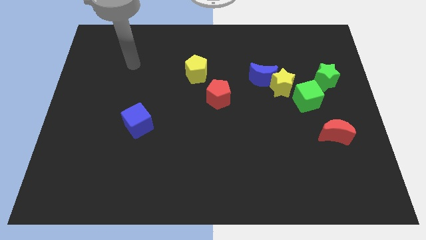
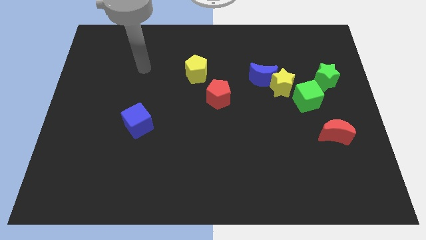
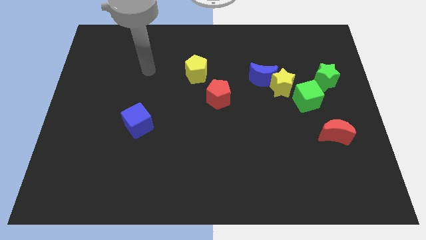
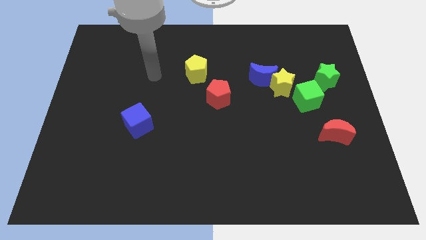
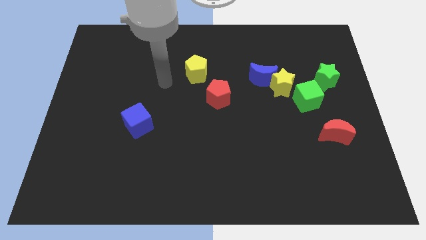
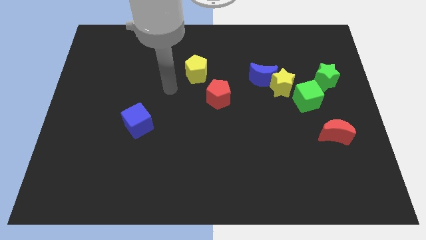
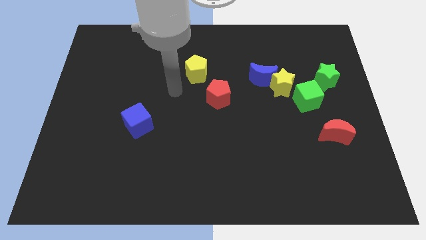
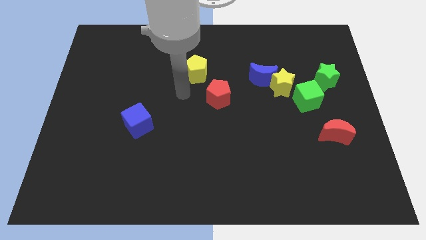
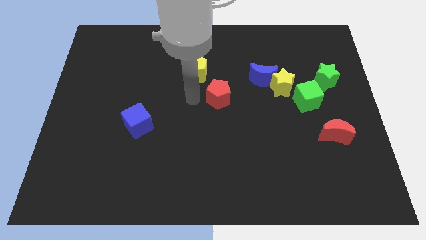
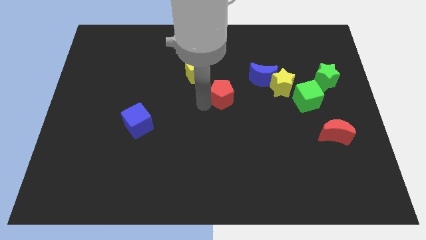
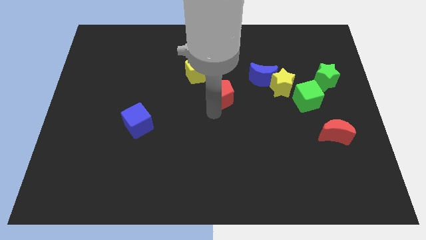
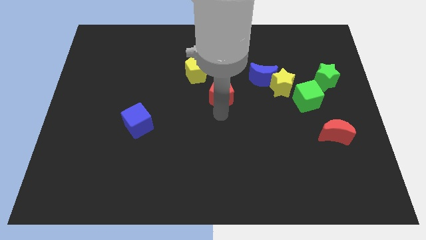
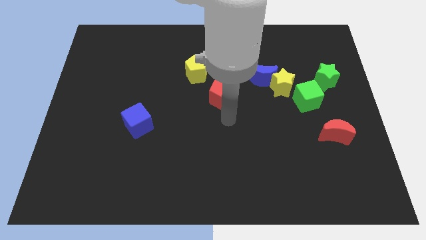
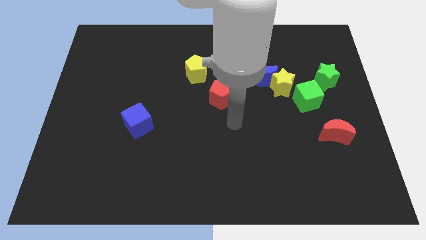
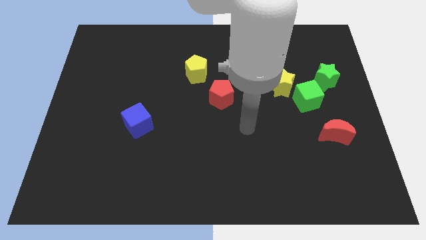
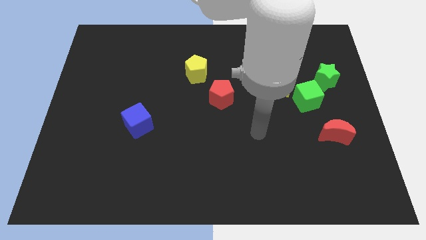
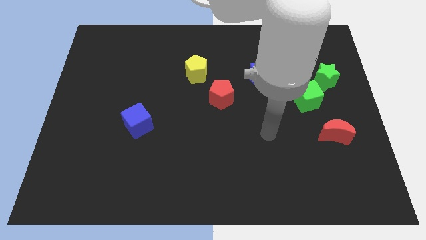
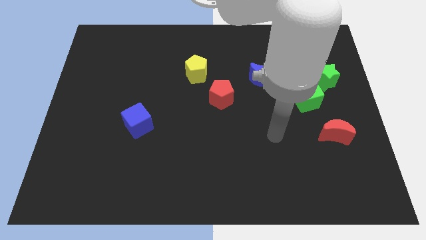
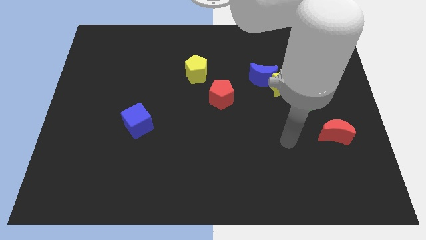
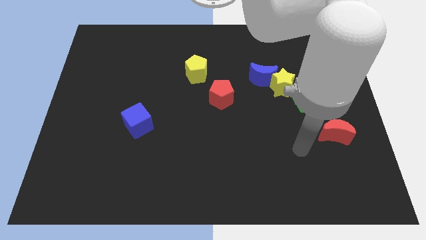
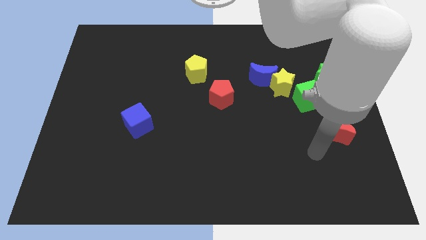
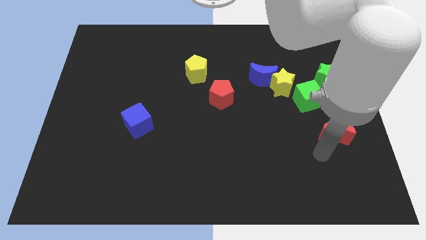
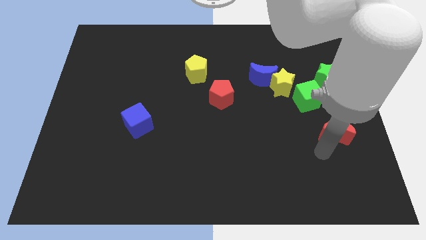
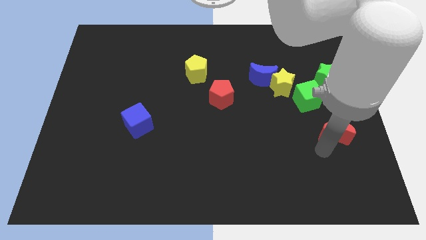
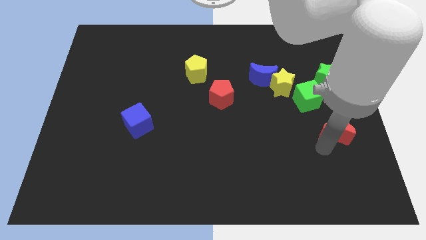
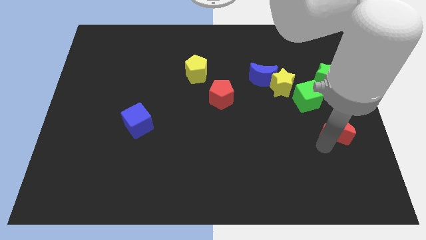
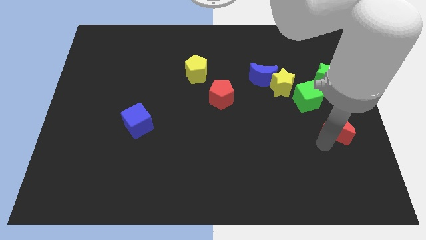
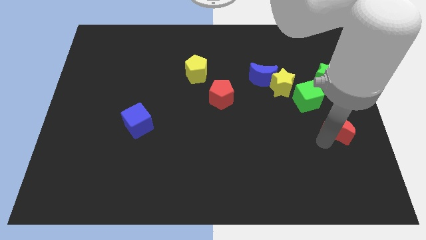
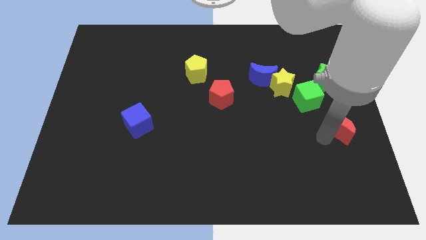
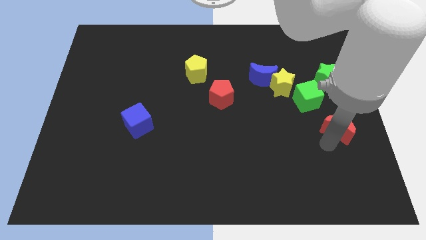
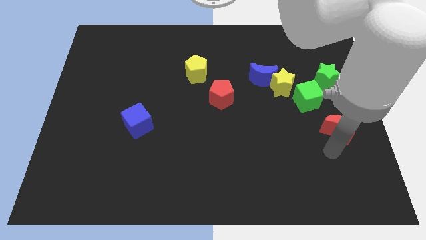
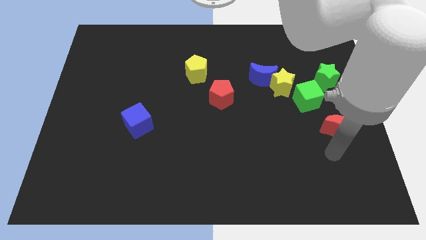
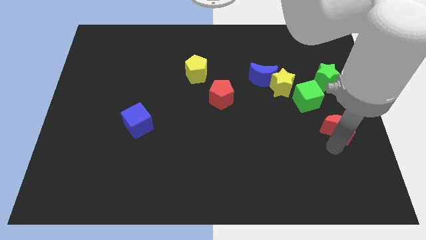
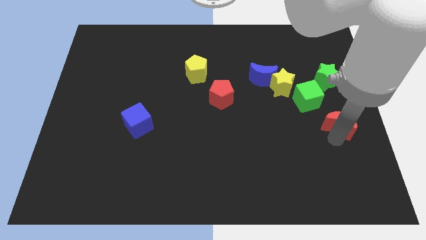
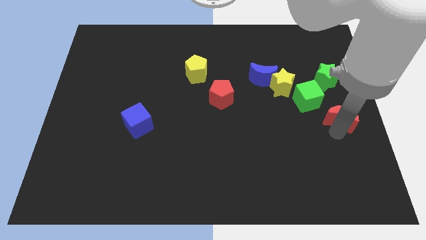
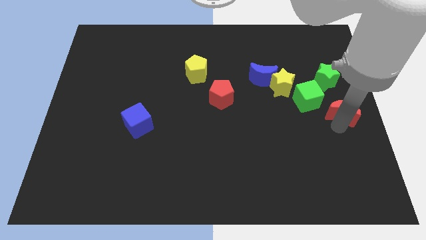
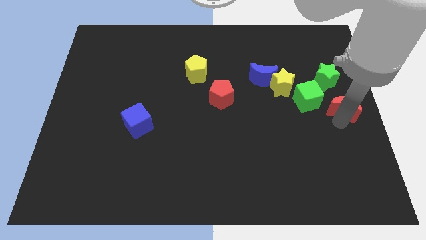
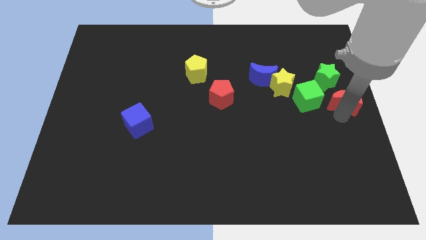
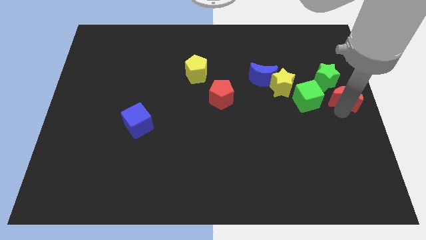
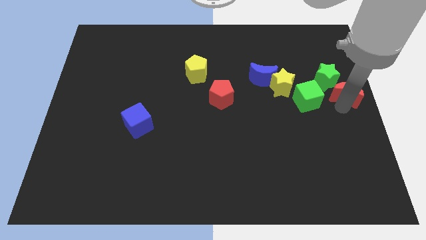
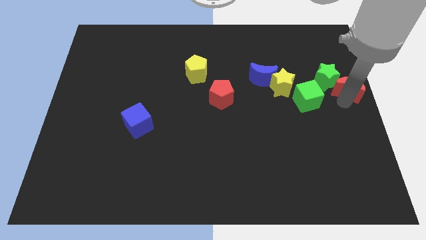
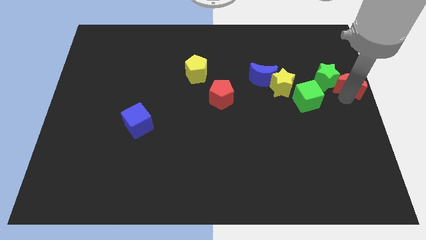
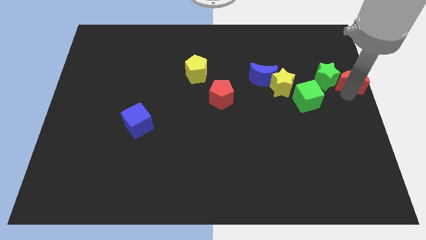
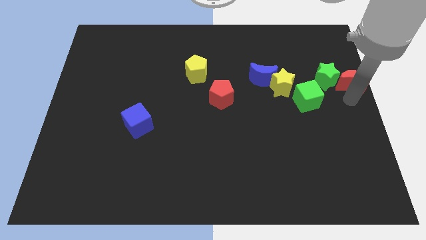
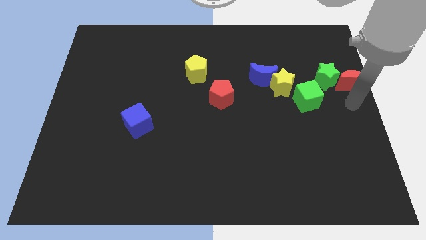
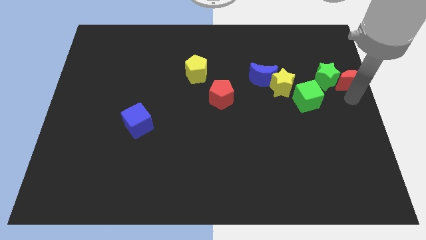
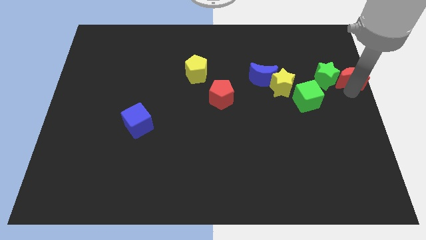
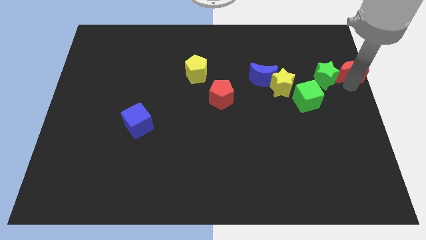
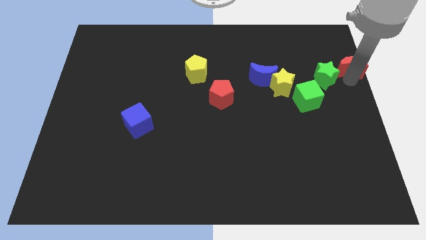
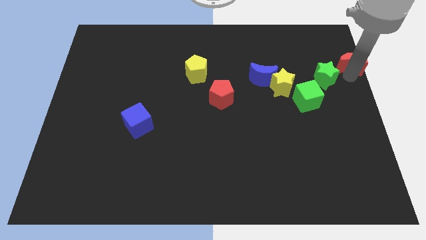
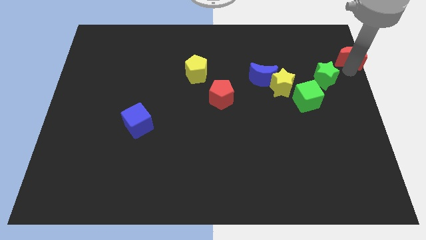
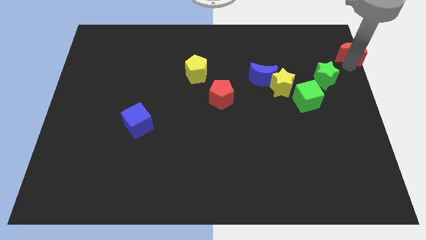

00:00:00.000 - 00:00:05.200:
move the red moon to the upper right corner

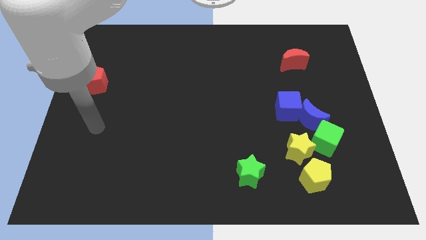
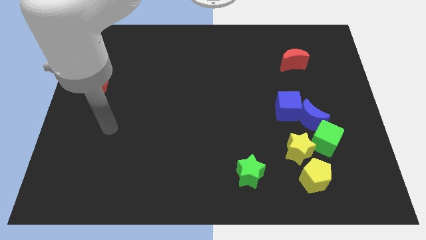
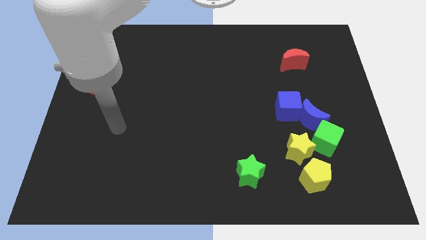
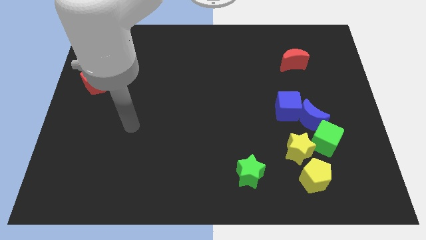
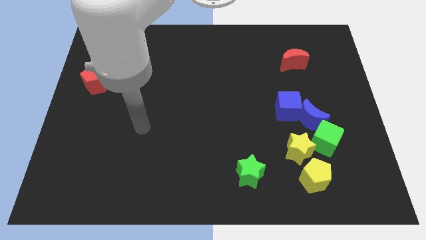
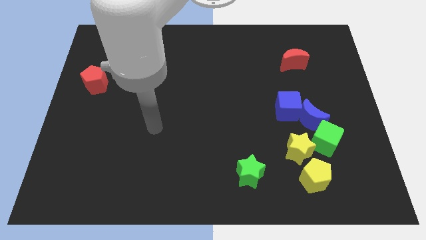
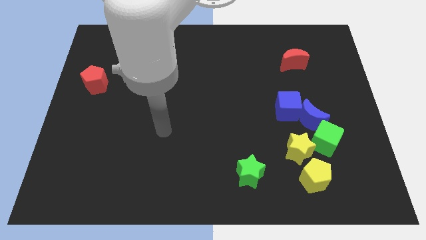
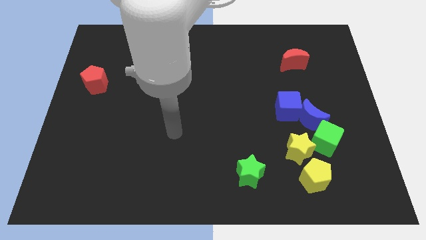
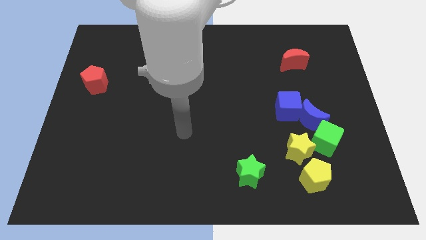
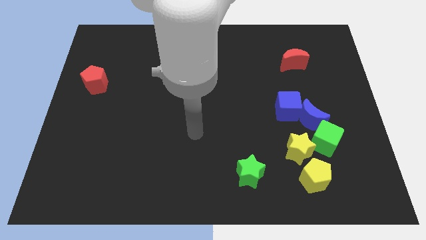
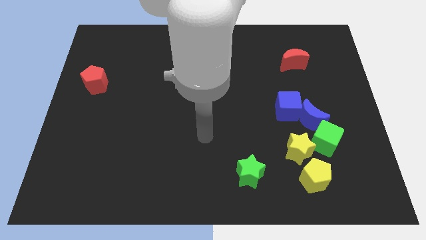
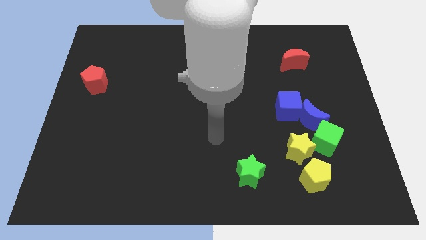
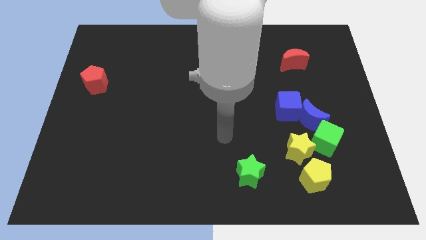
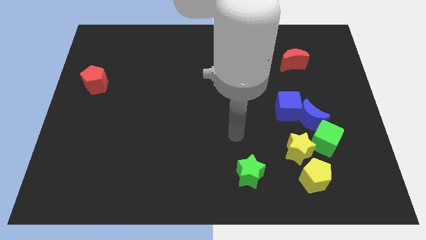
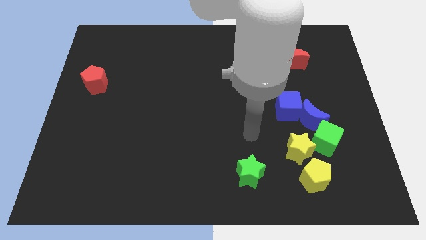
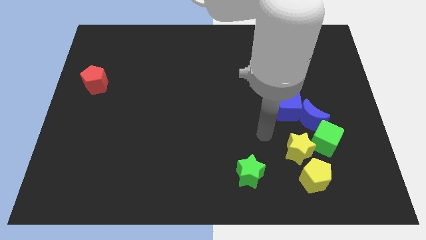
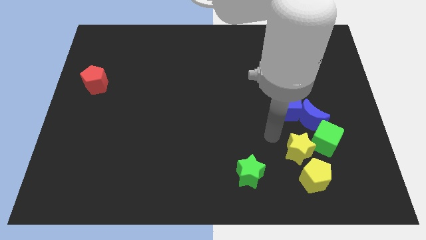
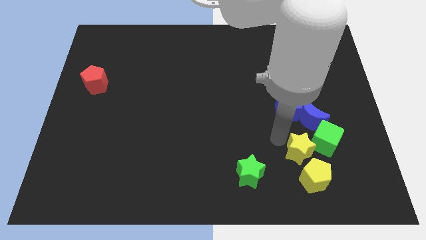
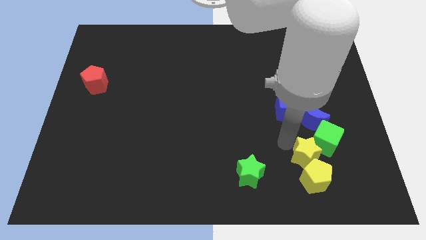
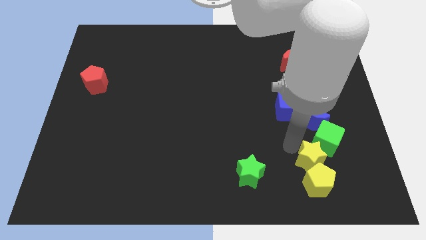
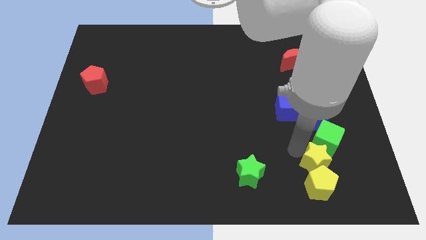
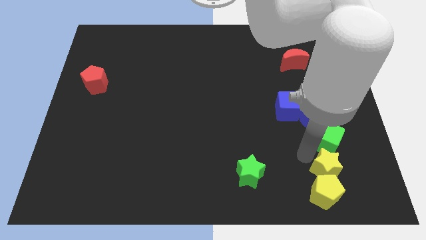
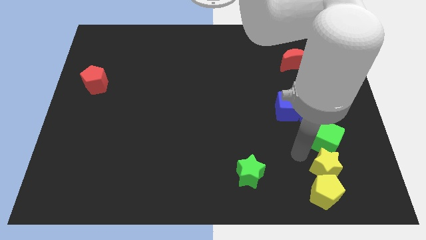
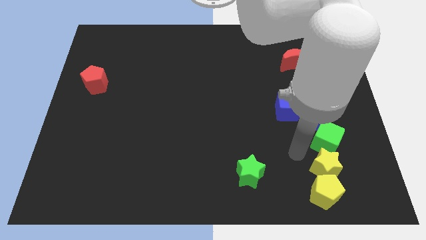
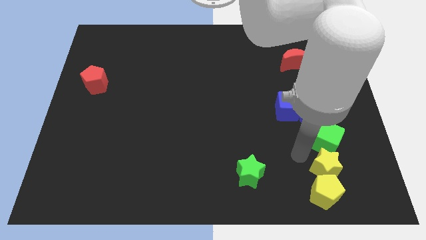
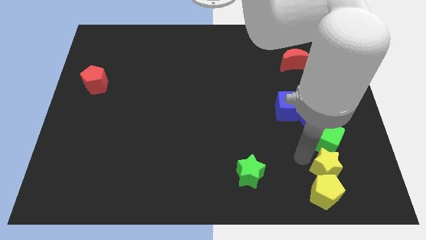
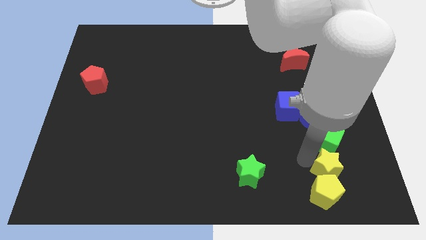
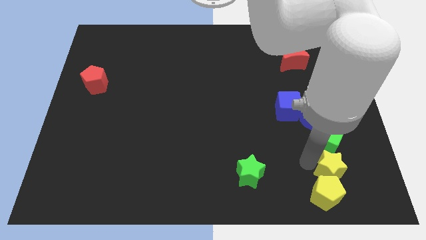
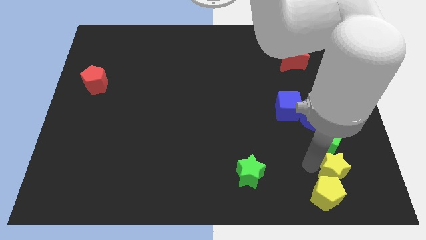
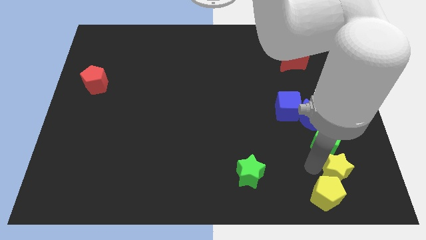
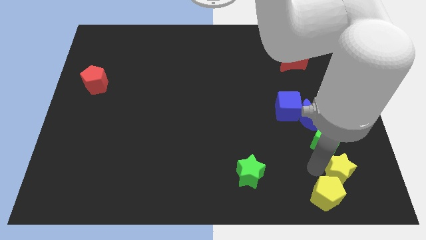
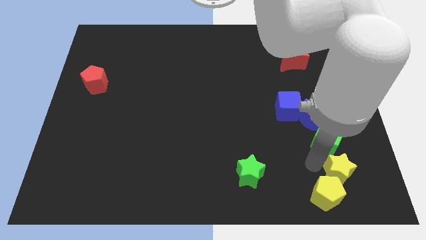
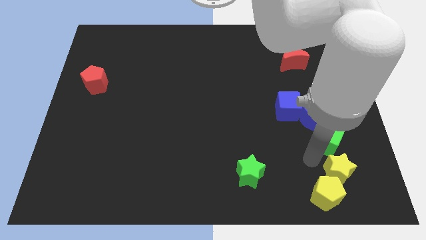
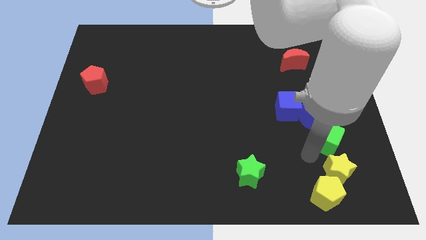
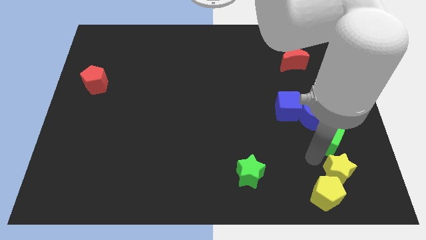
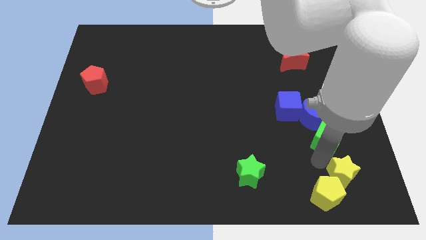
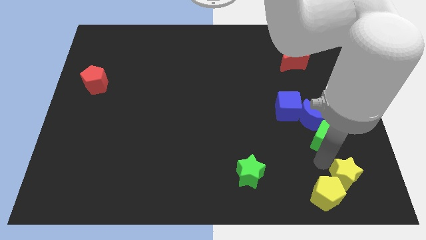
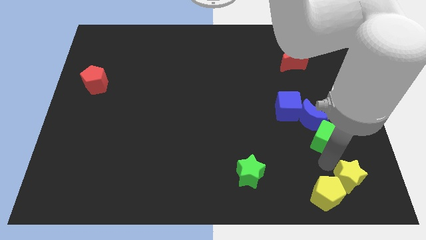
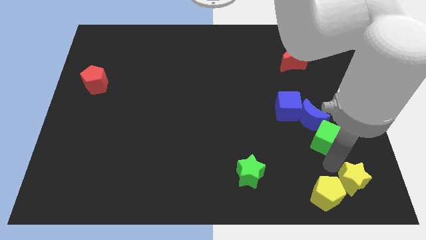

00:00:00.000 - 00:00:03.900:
push the yellow star to the bottom right of the board
